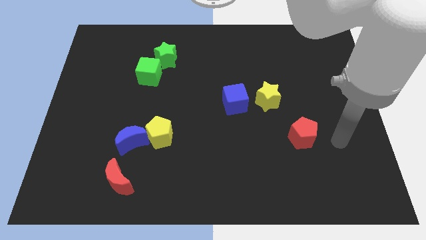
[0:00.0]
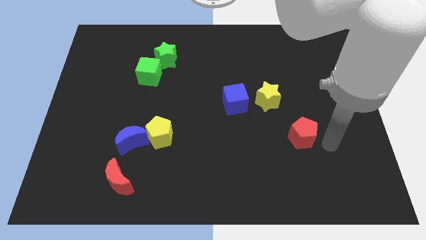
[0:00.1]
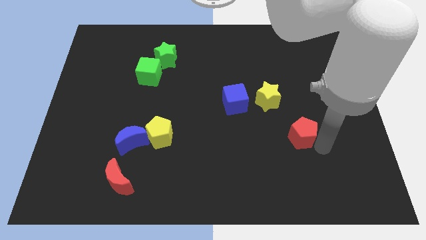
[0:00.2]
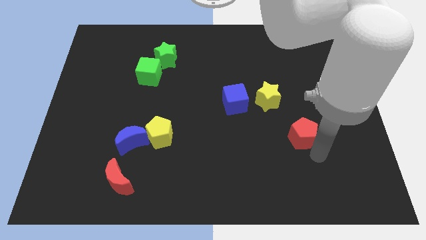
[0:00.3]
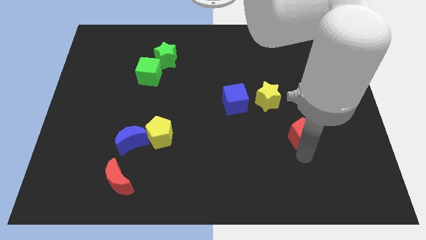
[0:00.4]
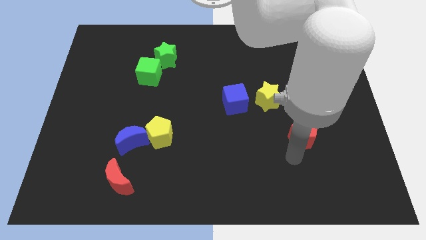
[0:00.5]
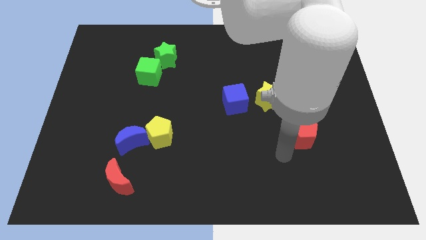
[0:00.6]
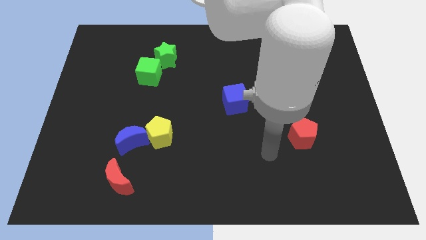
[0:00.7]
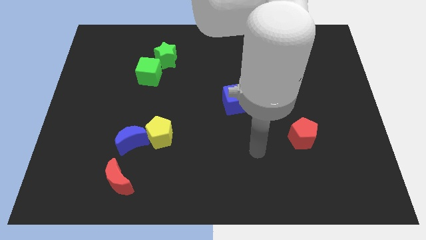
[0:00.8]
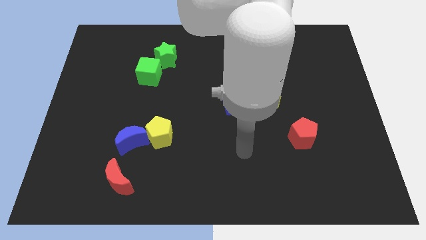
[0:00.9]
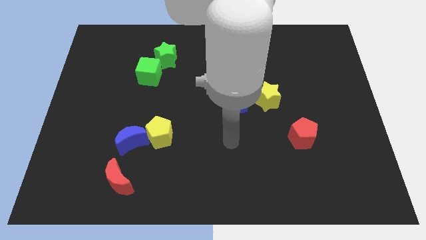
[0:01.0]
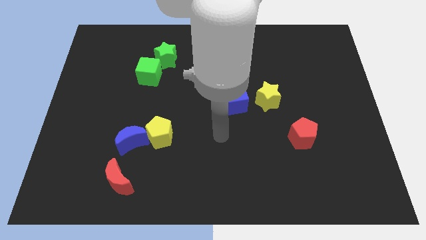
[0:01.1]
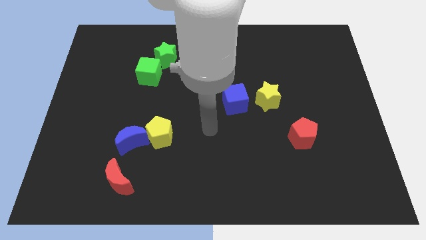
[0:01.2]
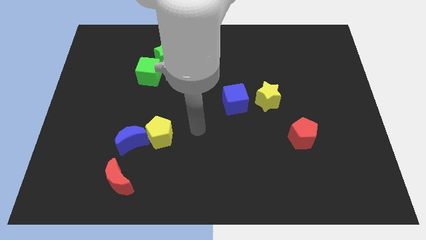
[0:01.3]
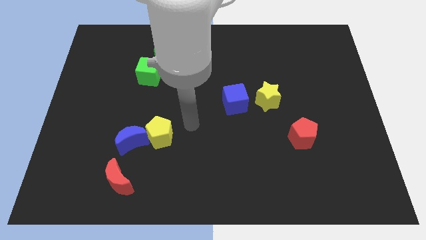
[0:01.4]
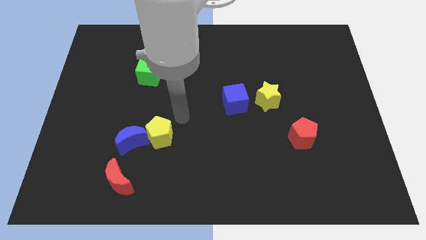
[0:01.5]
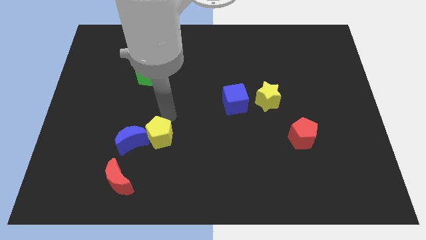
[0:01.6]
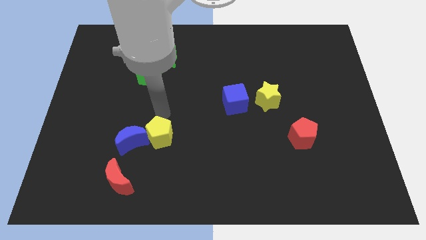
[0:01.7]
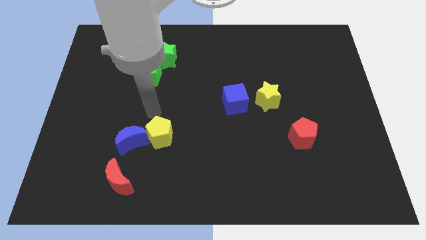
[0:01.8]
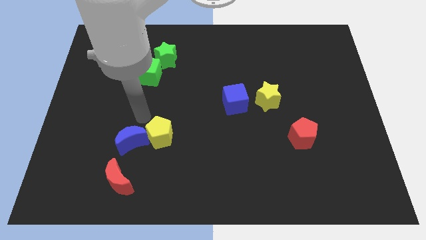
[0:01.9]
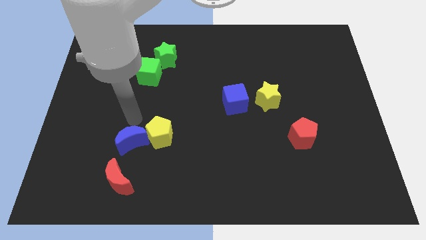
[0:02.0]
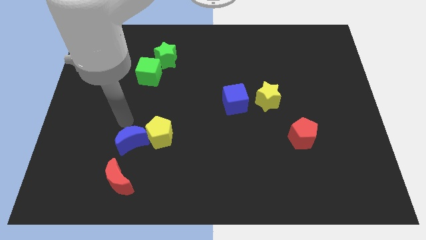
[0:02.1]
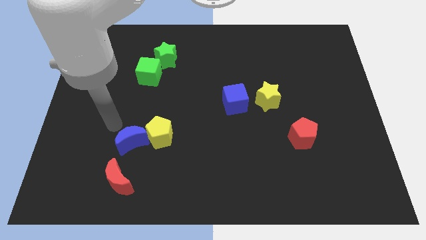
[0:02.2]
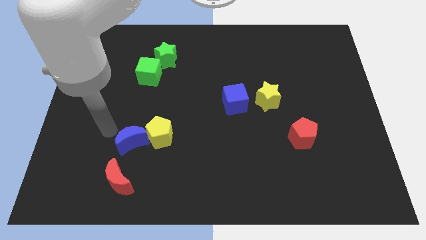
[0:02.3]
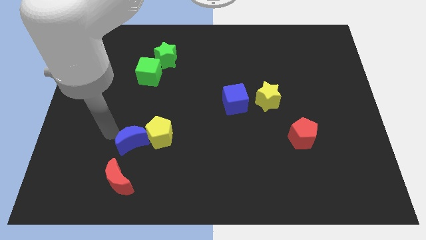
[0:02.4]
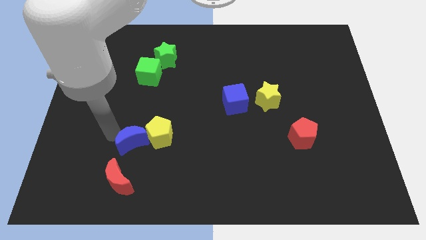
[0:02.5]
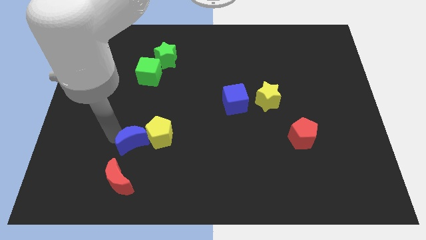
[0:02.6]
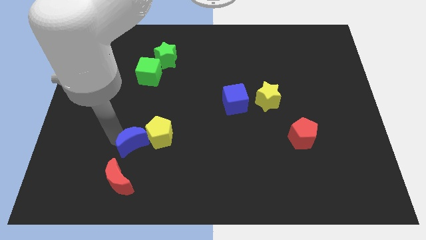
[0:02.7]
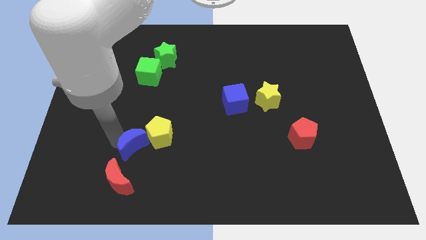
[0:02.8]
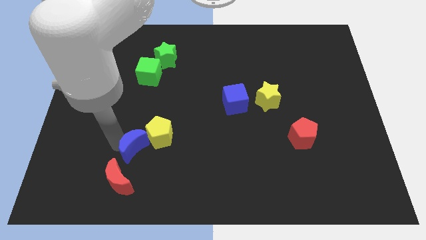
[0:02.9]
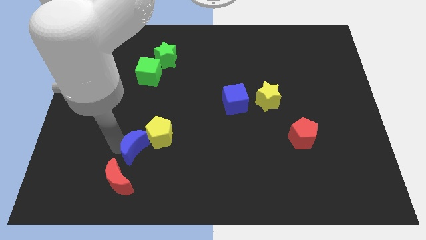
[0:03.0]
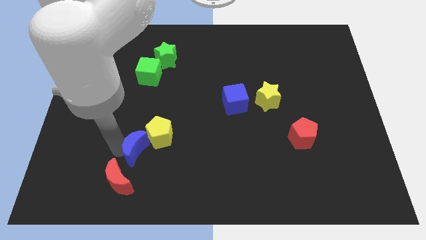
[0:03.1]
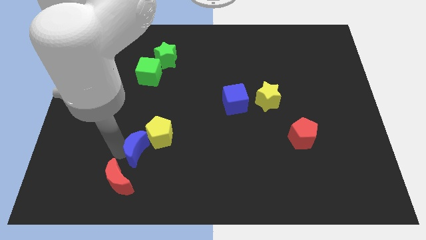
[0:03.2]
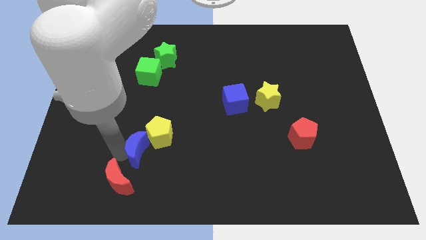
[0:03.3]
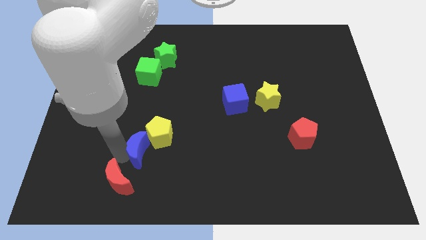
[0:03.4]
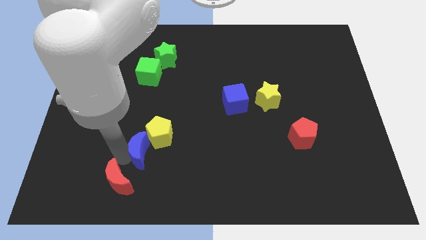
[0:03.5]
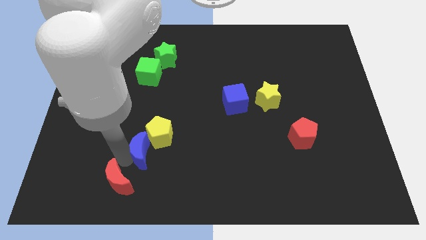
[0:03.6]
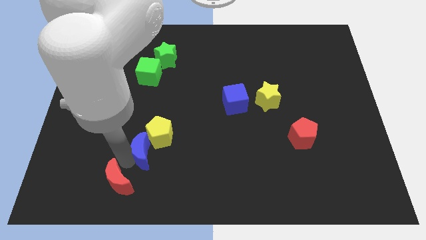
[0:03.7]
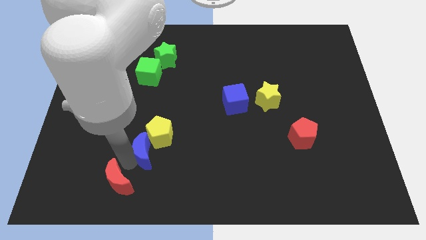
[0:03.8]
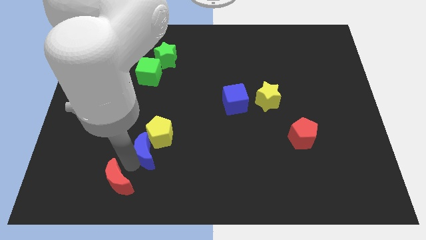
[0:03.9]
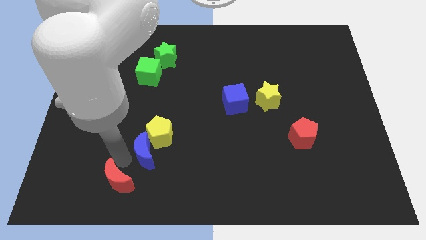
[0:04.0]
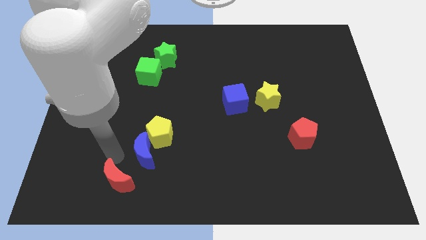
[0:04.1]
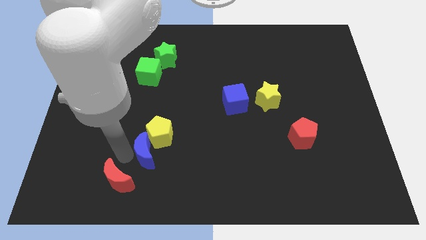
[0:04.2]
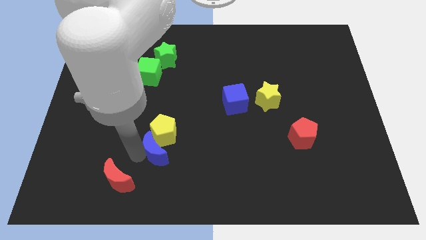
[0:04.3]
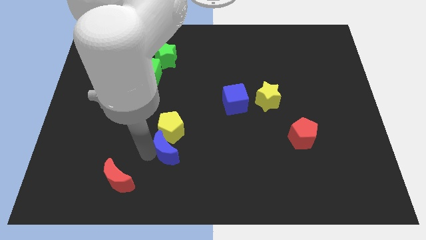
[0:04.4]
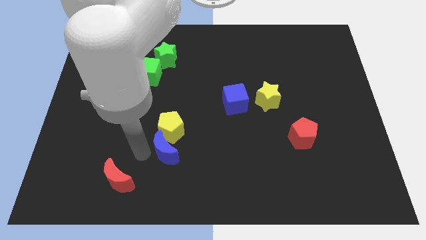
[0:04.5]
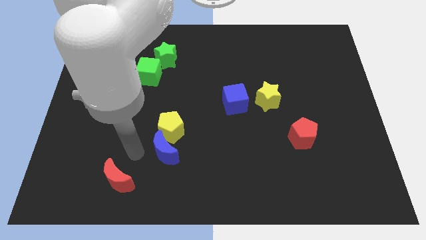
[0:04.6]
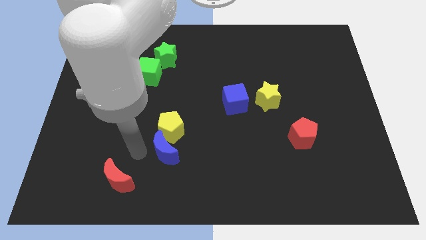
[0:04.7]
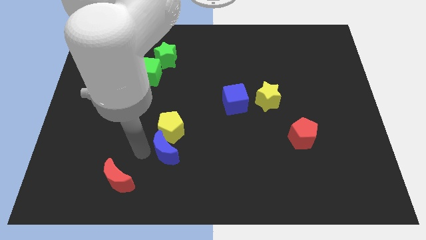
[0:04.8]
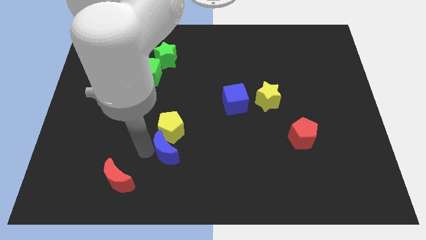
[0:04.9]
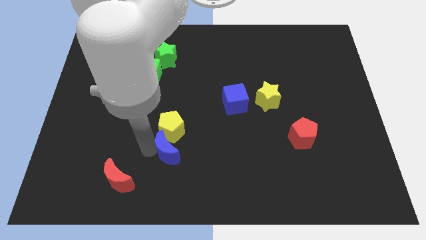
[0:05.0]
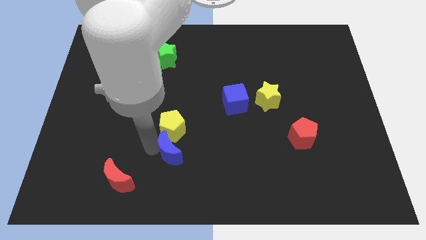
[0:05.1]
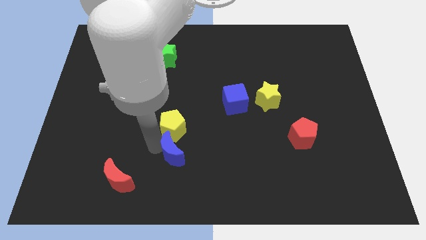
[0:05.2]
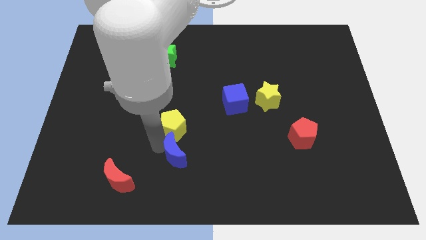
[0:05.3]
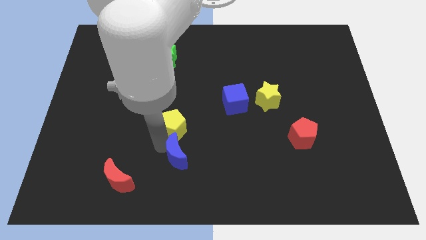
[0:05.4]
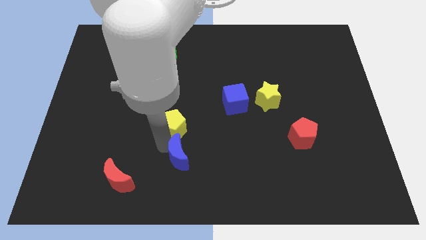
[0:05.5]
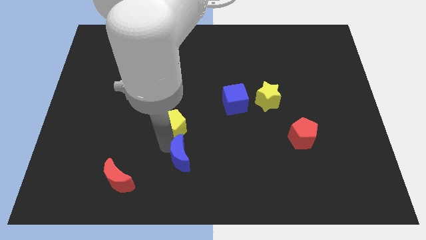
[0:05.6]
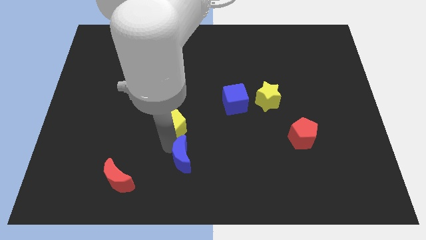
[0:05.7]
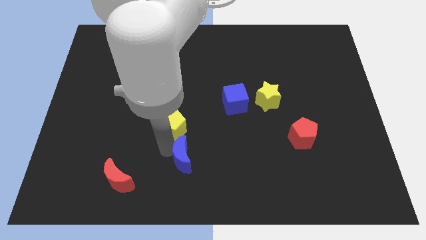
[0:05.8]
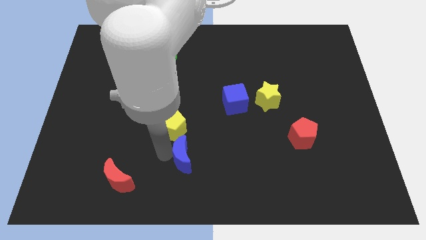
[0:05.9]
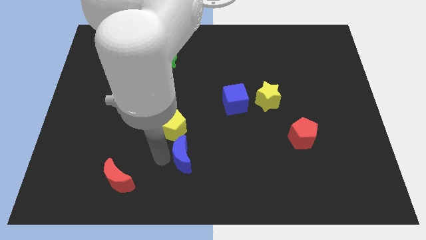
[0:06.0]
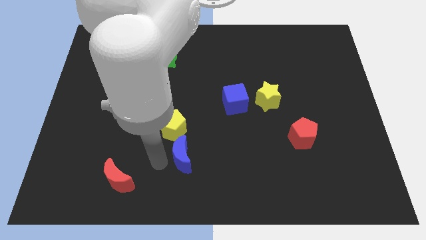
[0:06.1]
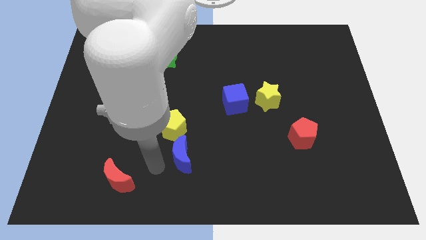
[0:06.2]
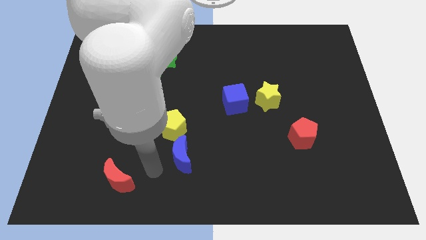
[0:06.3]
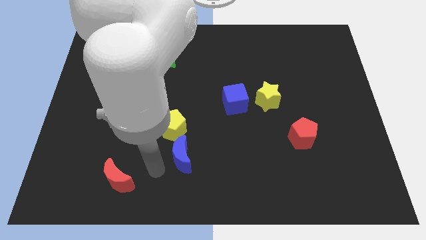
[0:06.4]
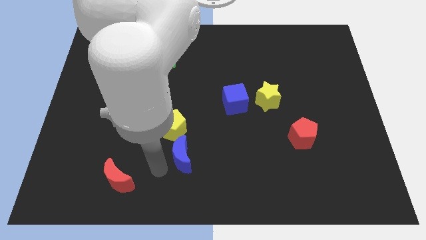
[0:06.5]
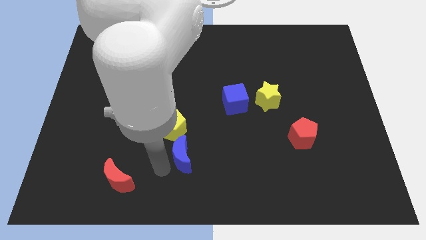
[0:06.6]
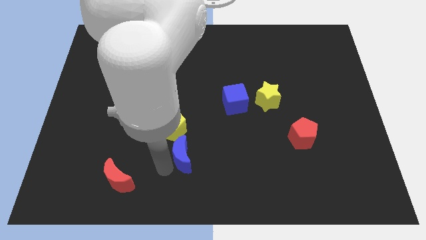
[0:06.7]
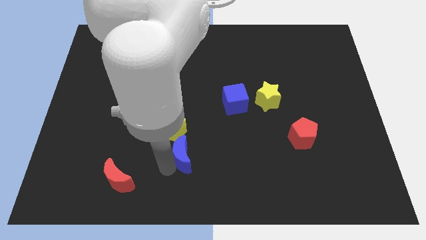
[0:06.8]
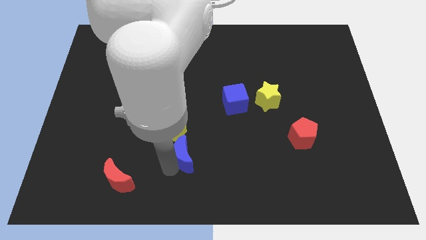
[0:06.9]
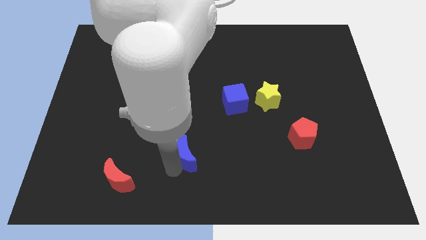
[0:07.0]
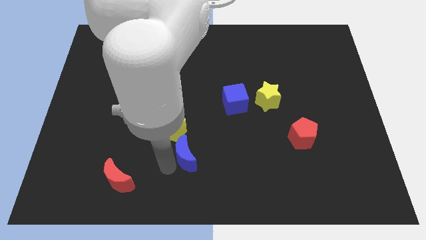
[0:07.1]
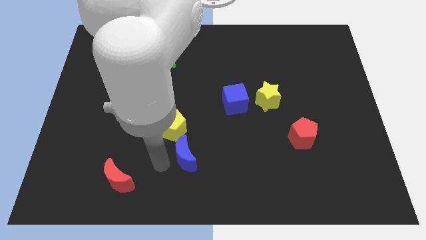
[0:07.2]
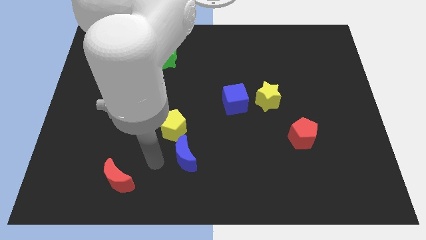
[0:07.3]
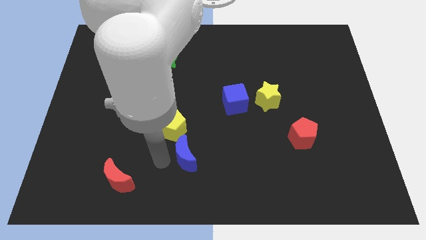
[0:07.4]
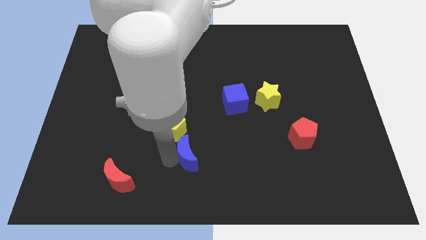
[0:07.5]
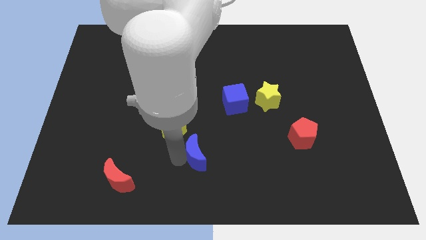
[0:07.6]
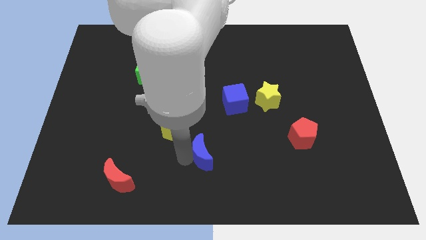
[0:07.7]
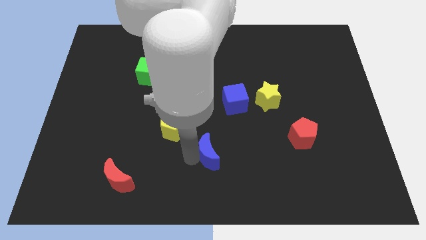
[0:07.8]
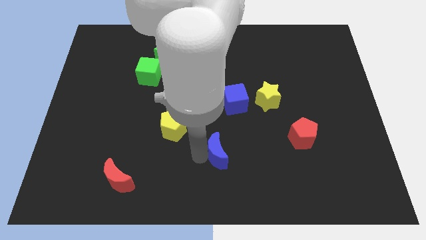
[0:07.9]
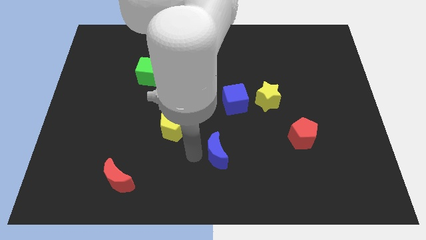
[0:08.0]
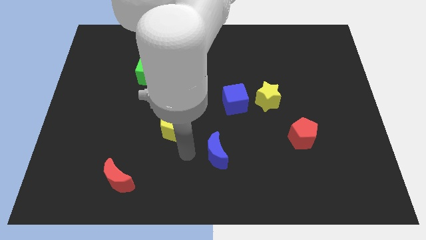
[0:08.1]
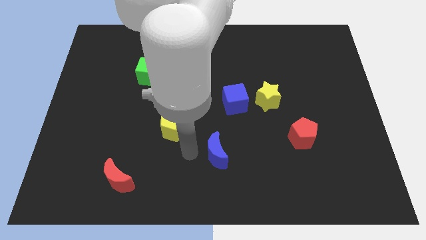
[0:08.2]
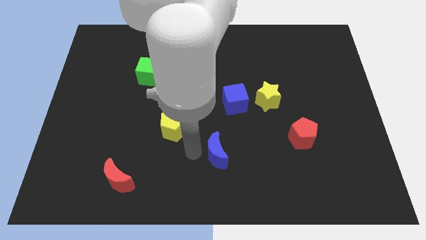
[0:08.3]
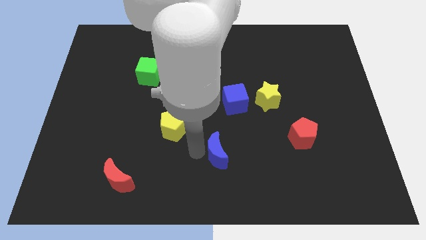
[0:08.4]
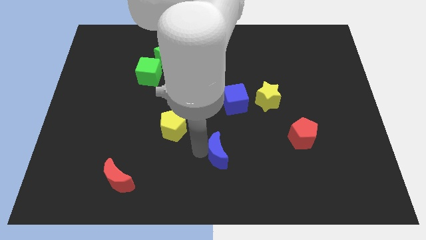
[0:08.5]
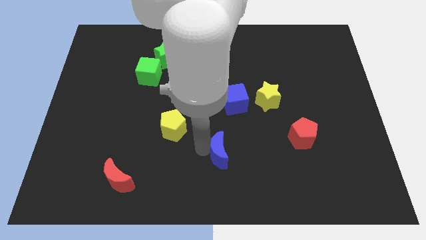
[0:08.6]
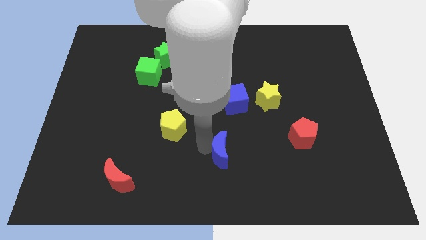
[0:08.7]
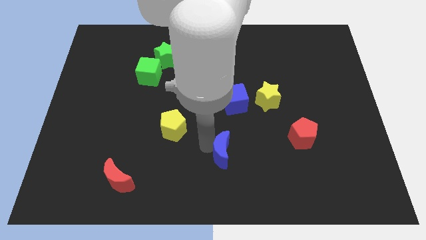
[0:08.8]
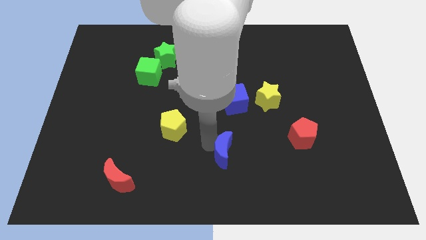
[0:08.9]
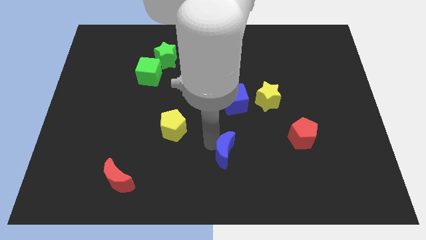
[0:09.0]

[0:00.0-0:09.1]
push the blue moon right
